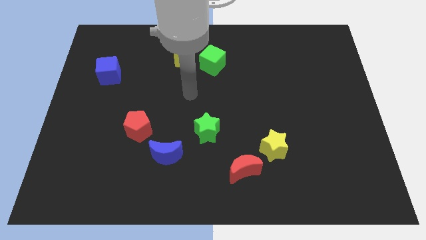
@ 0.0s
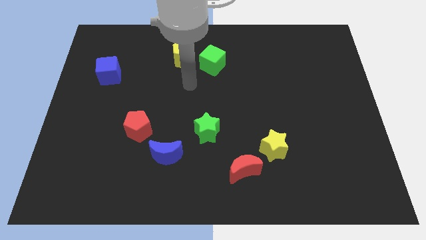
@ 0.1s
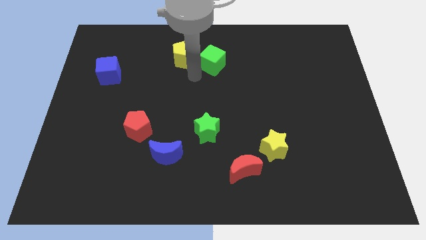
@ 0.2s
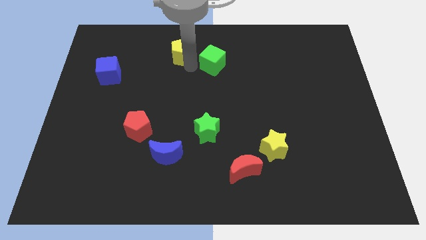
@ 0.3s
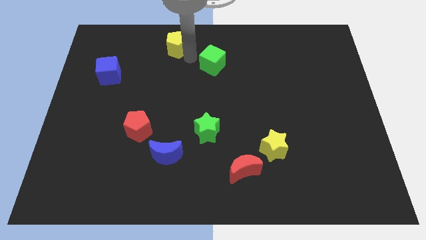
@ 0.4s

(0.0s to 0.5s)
separate the green cube from the yellow pentagon

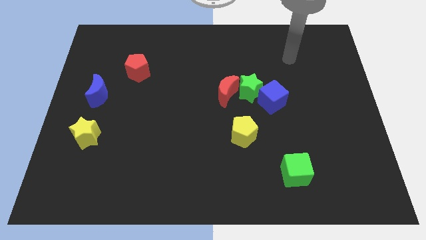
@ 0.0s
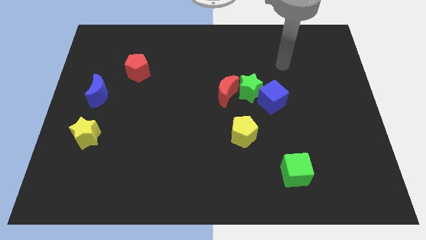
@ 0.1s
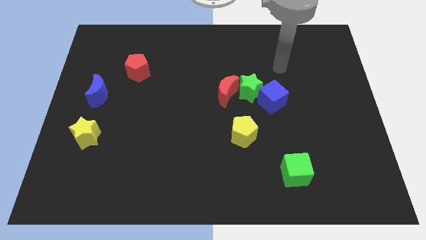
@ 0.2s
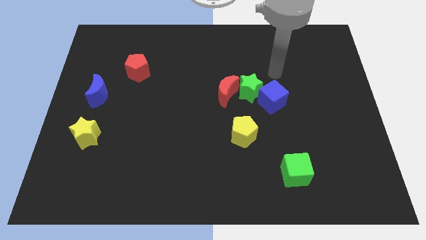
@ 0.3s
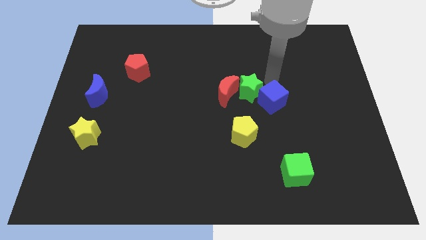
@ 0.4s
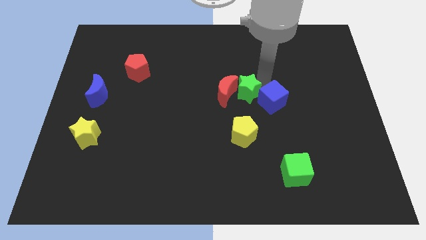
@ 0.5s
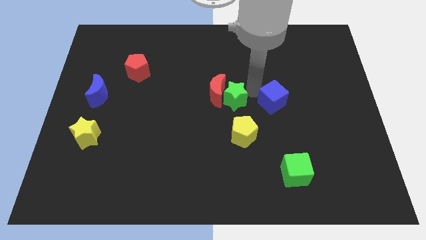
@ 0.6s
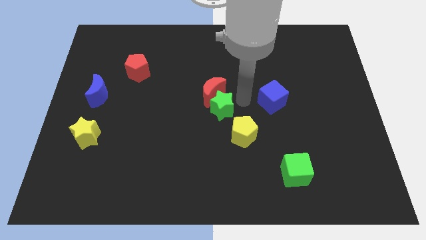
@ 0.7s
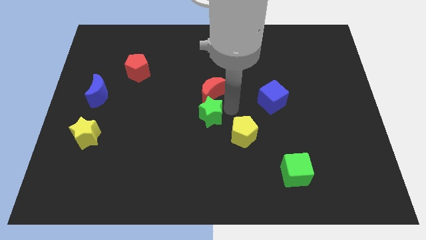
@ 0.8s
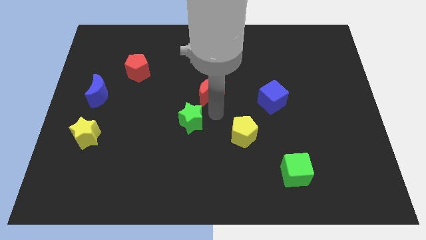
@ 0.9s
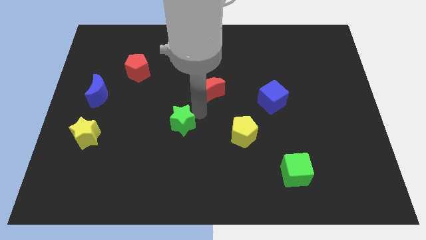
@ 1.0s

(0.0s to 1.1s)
move the red moon away from the green star

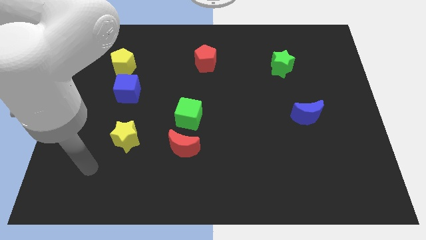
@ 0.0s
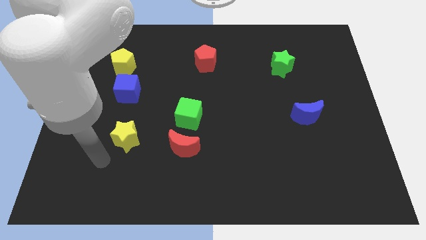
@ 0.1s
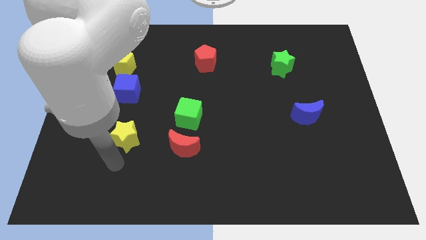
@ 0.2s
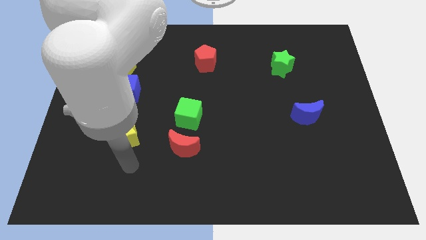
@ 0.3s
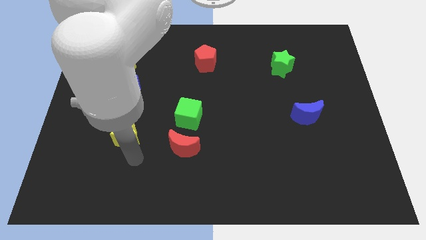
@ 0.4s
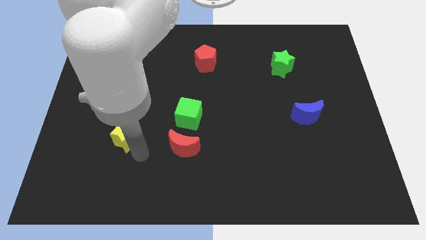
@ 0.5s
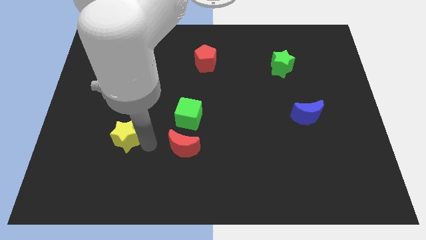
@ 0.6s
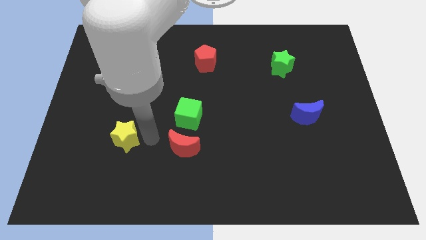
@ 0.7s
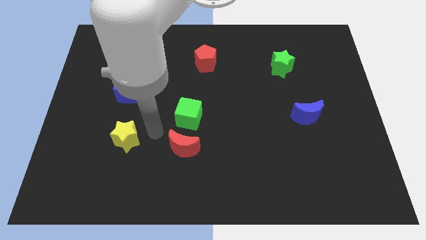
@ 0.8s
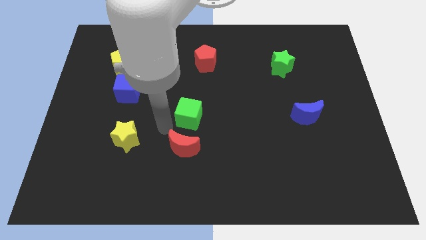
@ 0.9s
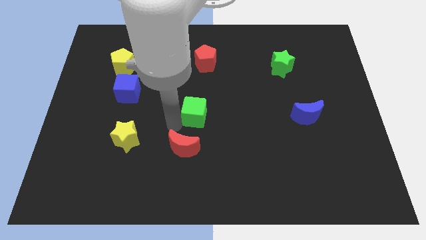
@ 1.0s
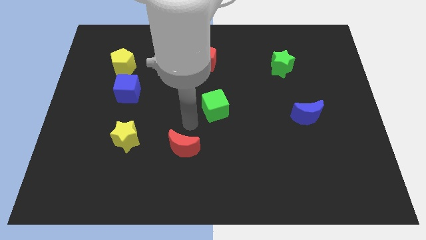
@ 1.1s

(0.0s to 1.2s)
move the red moon away from the green cube

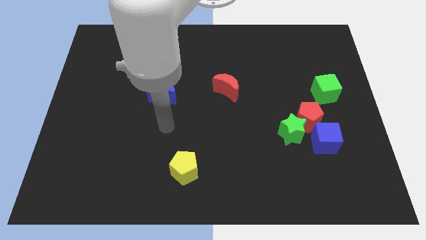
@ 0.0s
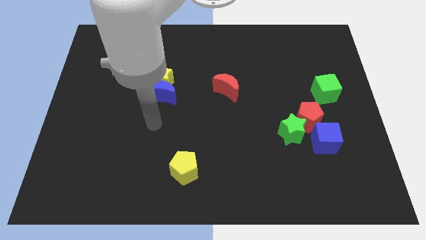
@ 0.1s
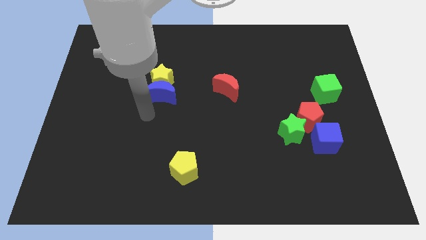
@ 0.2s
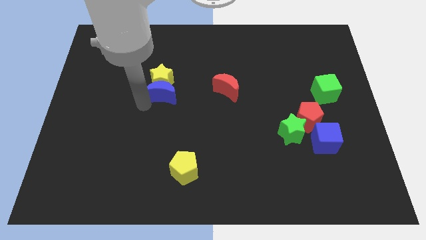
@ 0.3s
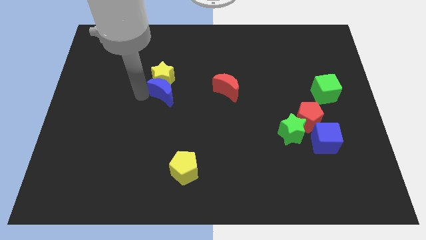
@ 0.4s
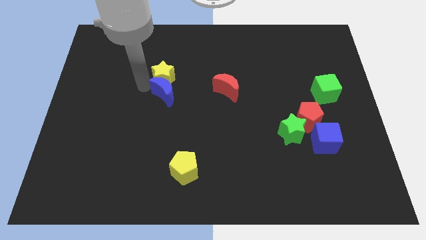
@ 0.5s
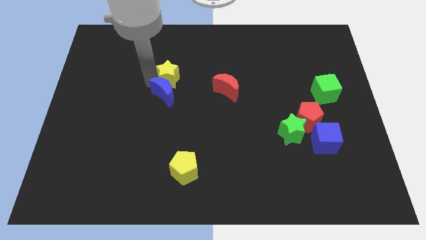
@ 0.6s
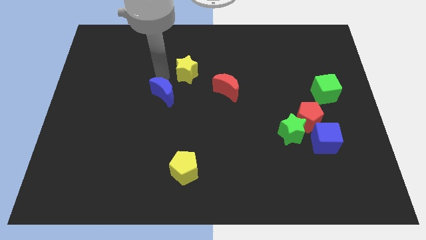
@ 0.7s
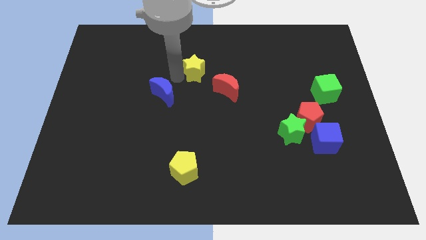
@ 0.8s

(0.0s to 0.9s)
move the blue moon away from the yellow star

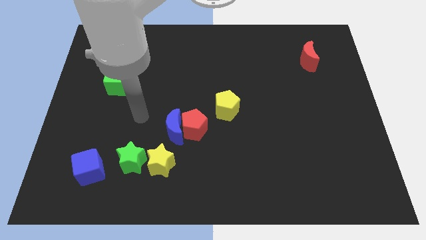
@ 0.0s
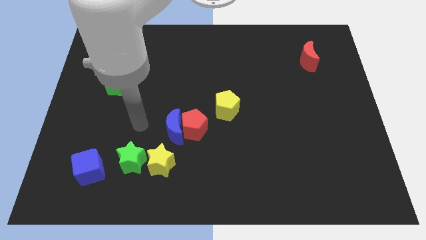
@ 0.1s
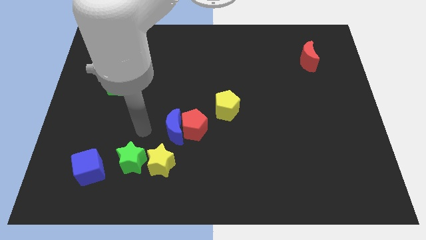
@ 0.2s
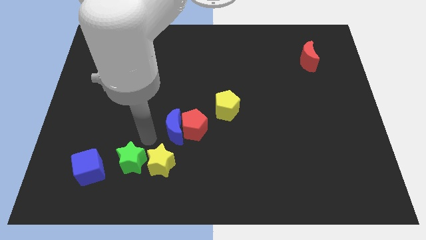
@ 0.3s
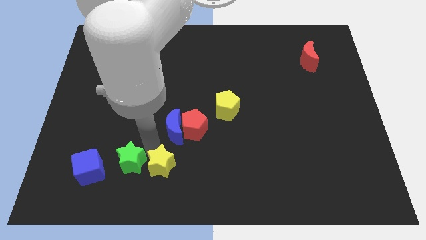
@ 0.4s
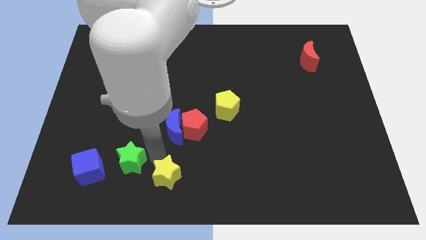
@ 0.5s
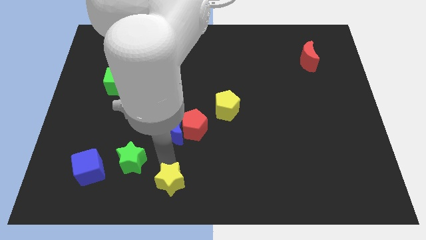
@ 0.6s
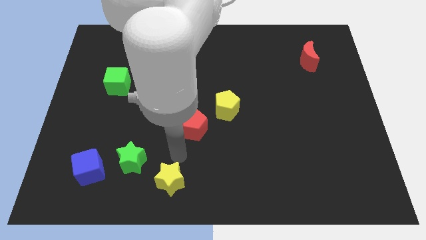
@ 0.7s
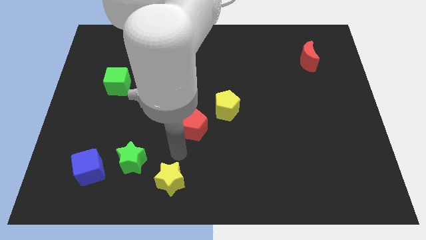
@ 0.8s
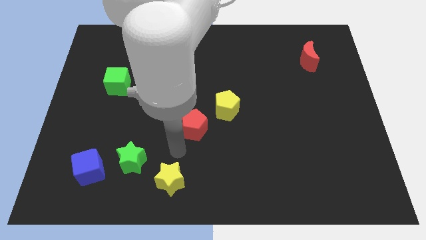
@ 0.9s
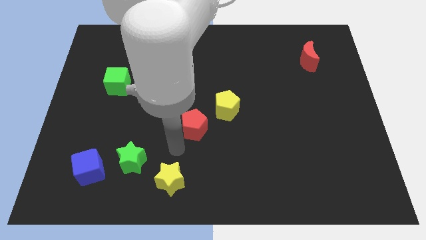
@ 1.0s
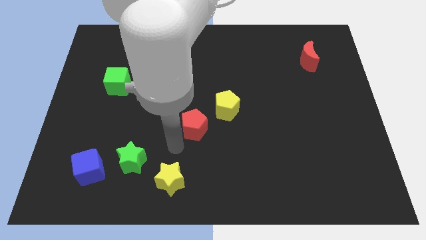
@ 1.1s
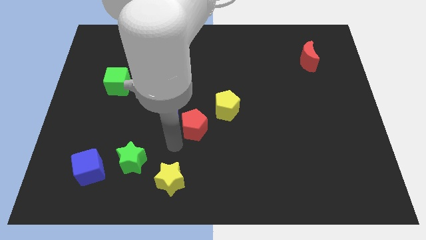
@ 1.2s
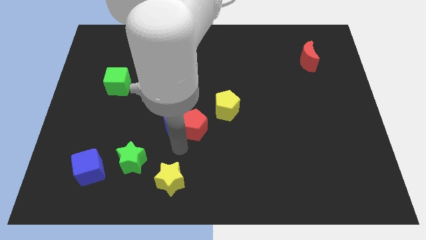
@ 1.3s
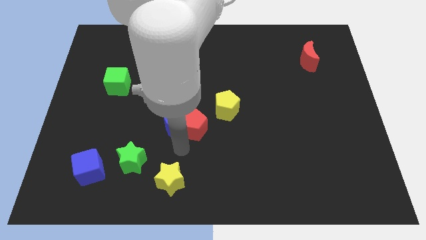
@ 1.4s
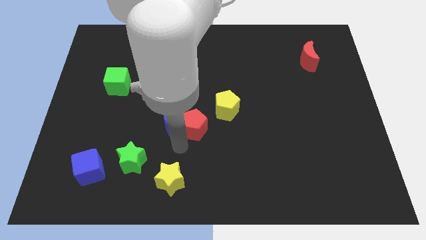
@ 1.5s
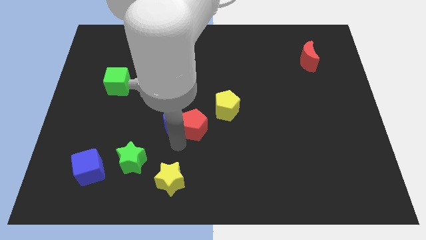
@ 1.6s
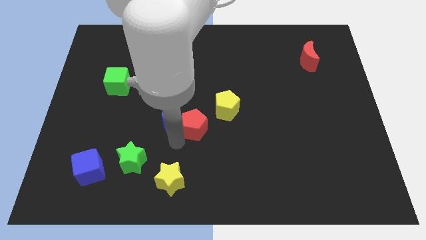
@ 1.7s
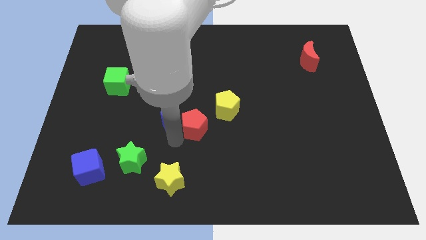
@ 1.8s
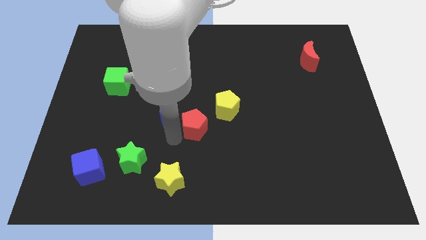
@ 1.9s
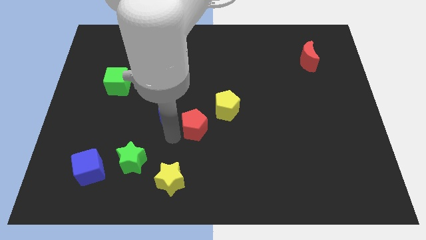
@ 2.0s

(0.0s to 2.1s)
move the blue moon away from the red pentagon and yellow star

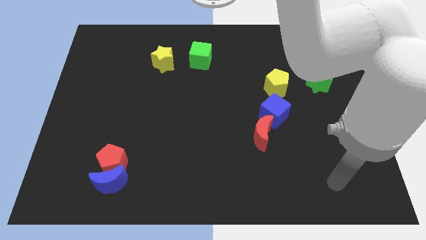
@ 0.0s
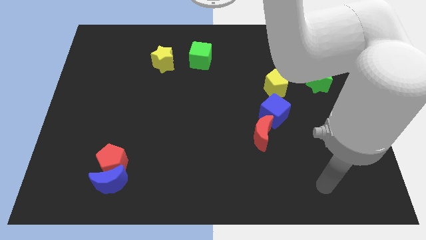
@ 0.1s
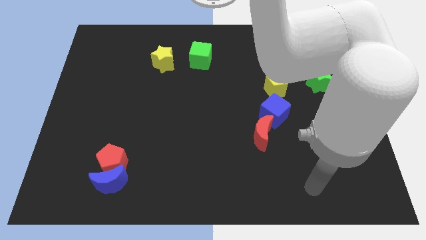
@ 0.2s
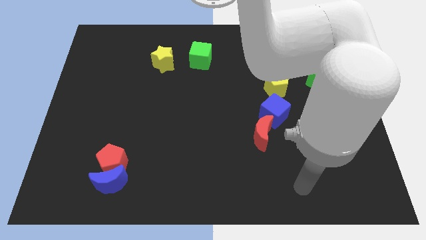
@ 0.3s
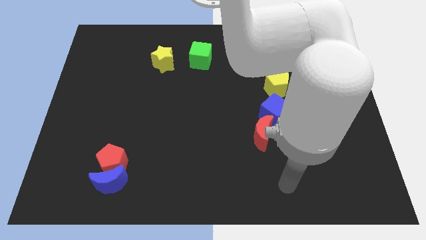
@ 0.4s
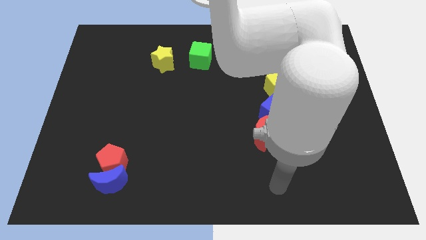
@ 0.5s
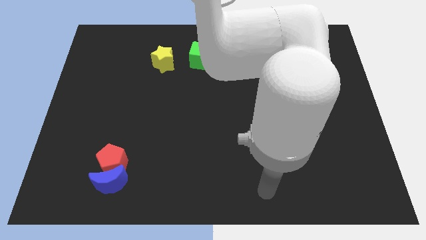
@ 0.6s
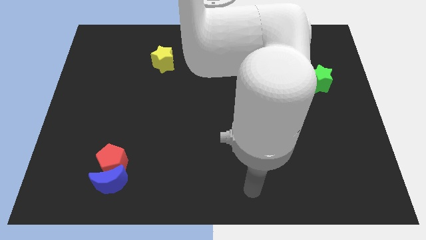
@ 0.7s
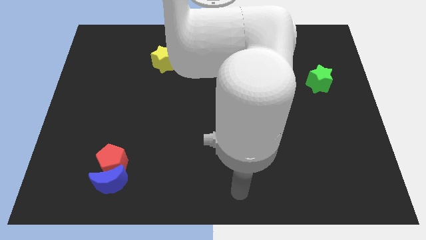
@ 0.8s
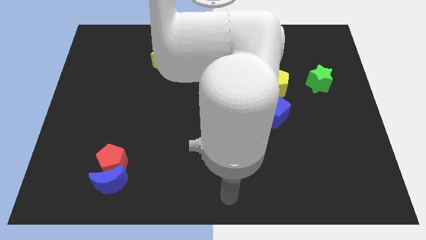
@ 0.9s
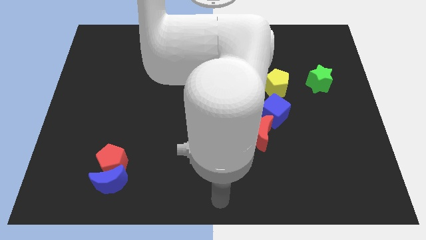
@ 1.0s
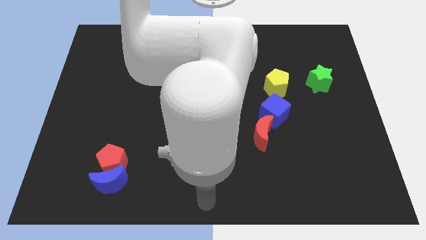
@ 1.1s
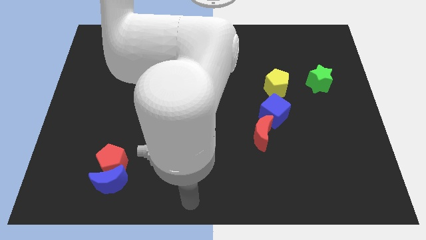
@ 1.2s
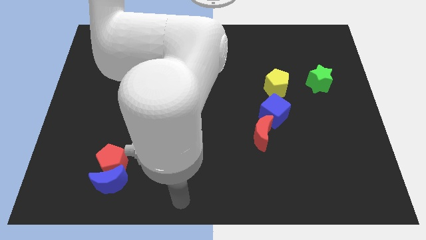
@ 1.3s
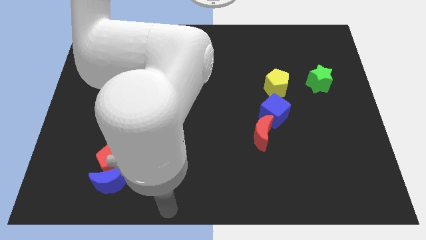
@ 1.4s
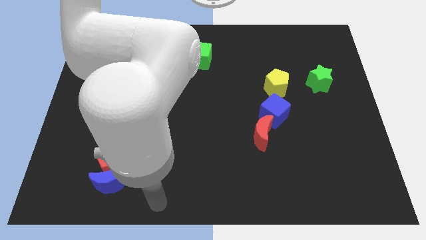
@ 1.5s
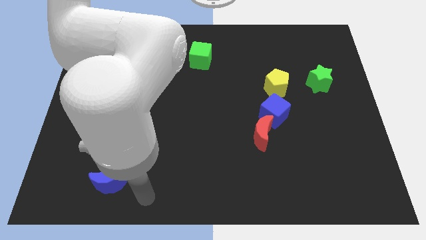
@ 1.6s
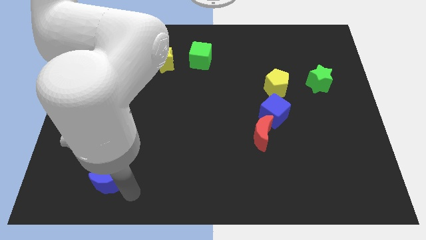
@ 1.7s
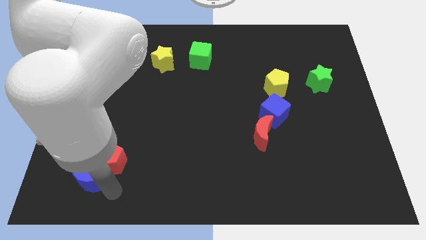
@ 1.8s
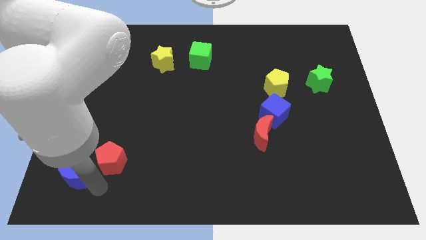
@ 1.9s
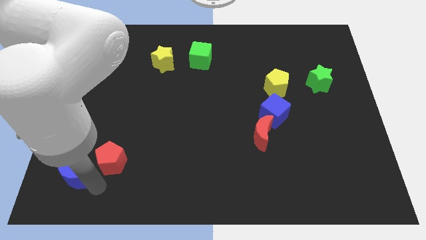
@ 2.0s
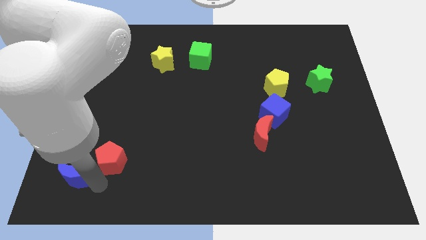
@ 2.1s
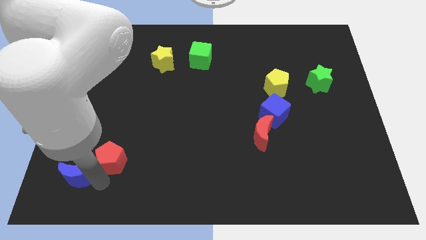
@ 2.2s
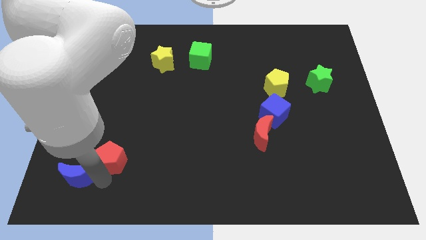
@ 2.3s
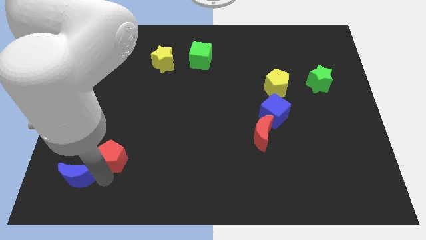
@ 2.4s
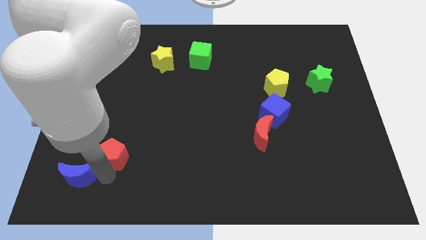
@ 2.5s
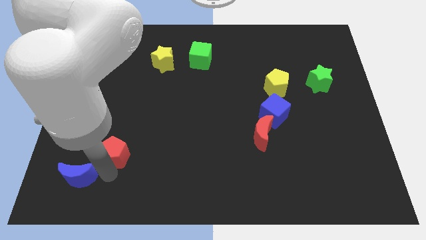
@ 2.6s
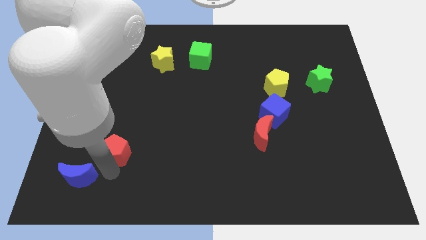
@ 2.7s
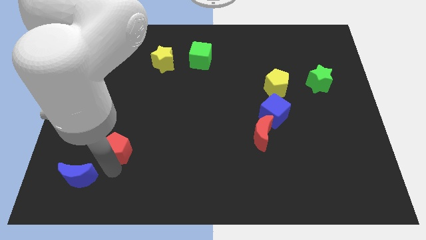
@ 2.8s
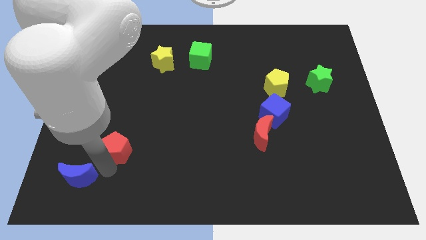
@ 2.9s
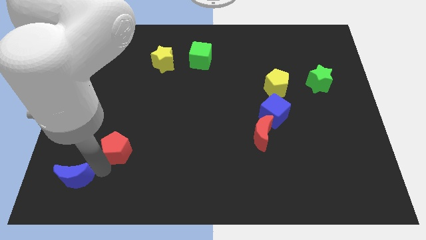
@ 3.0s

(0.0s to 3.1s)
pull the red pentagon apart from the blue moon

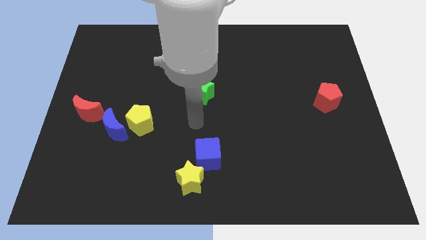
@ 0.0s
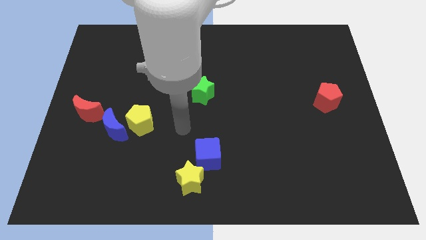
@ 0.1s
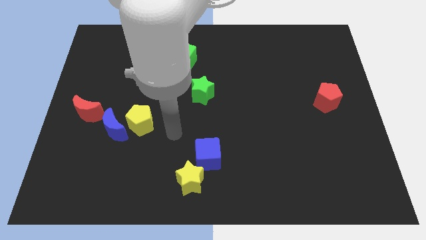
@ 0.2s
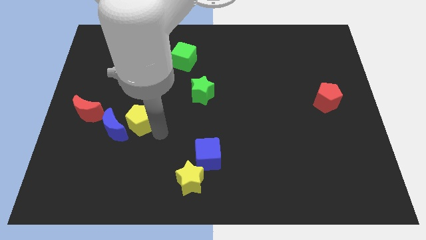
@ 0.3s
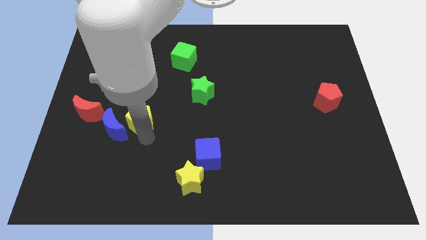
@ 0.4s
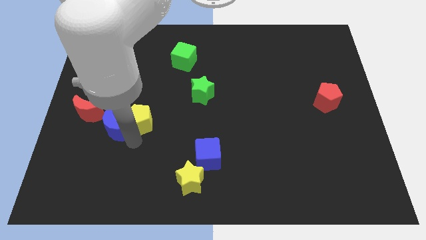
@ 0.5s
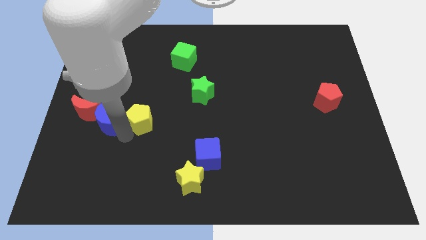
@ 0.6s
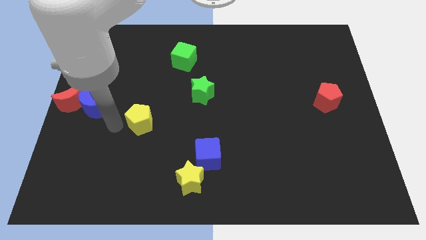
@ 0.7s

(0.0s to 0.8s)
pull the yellow pentagon apart from the blue moon
